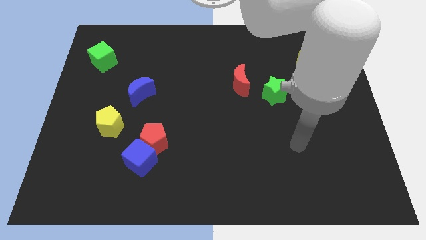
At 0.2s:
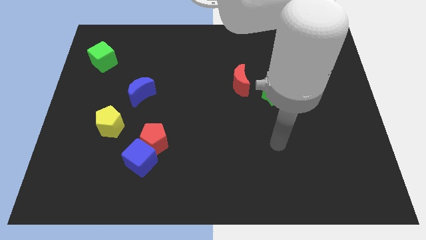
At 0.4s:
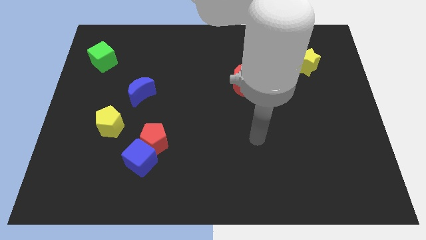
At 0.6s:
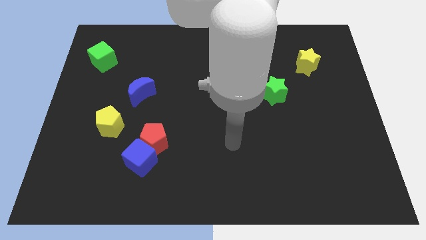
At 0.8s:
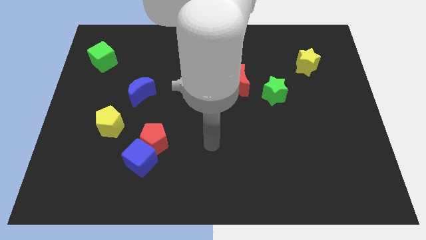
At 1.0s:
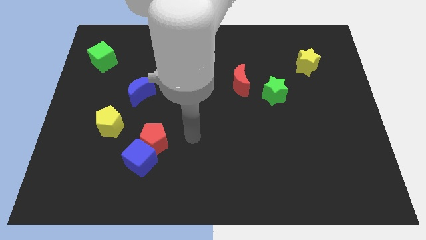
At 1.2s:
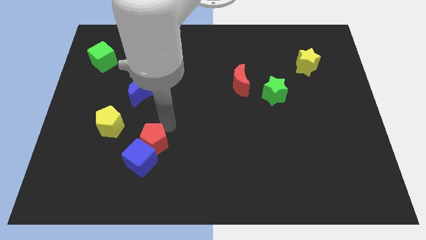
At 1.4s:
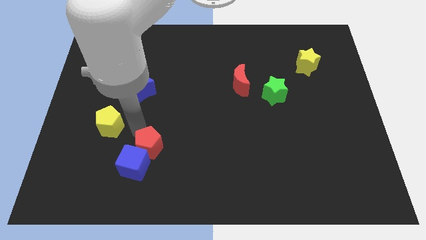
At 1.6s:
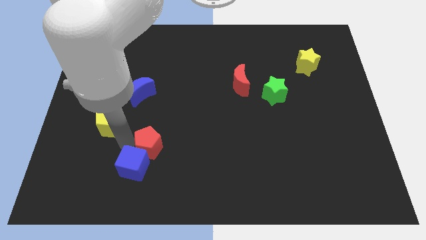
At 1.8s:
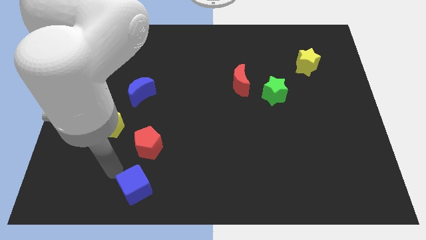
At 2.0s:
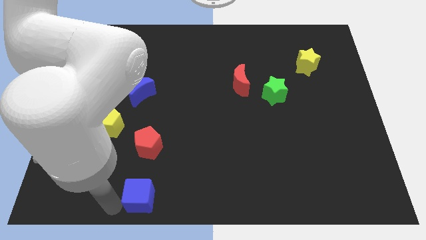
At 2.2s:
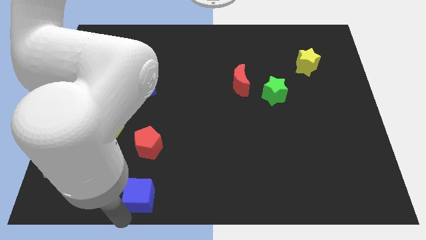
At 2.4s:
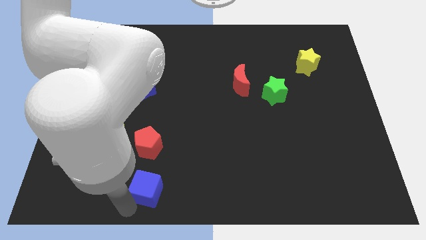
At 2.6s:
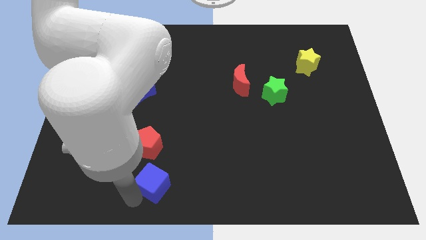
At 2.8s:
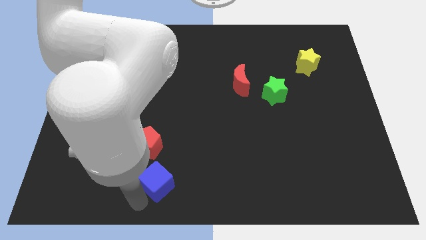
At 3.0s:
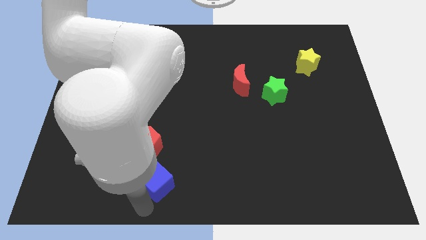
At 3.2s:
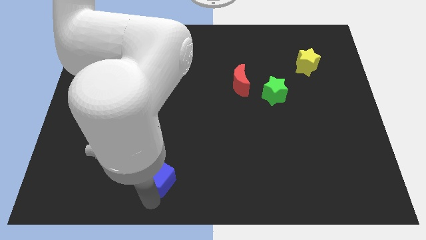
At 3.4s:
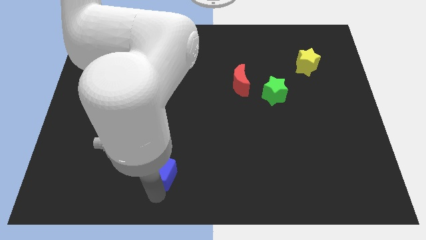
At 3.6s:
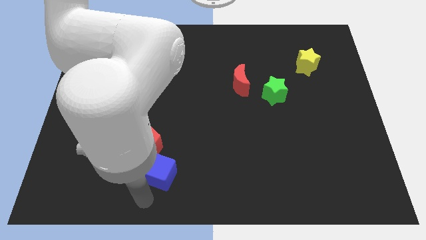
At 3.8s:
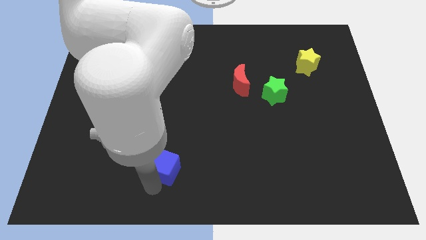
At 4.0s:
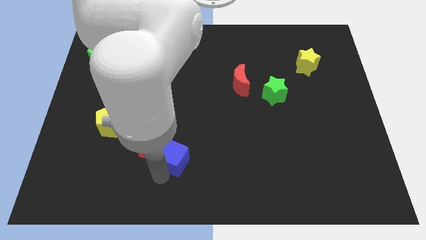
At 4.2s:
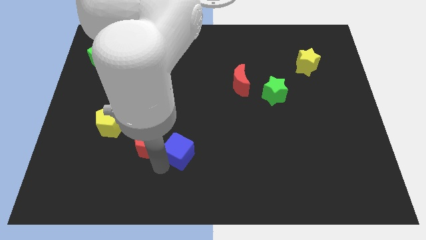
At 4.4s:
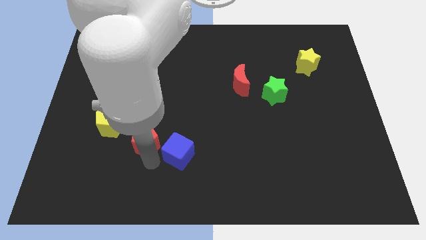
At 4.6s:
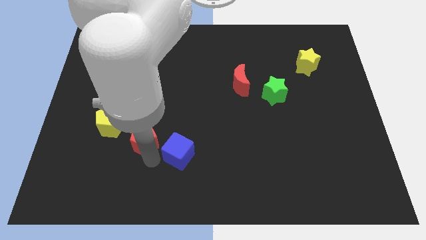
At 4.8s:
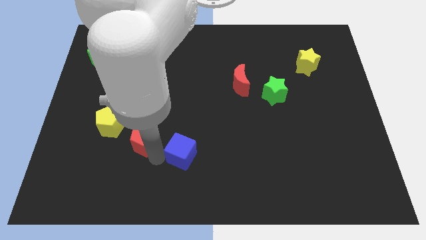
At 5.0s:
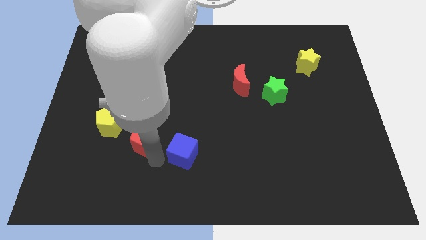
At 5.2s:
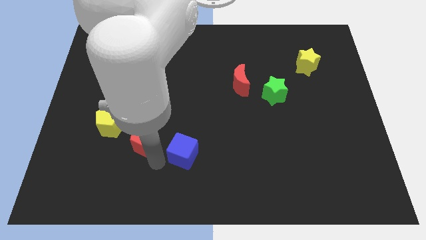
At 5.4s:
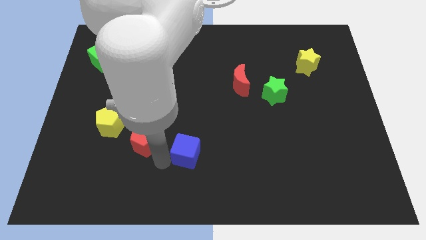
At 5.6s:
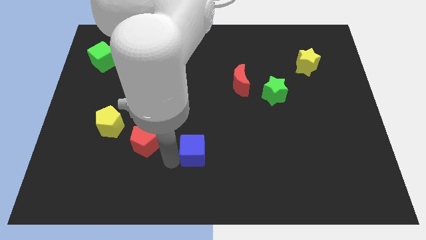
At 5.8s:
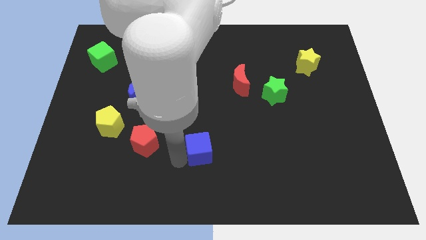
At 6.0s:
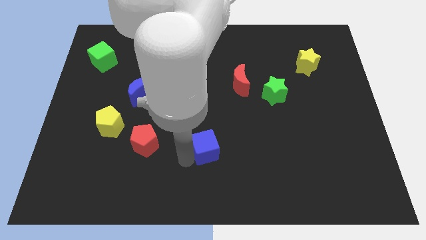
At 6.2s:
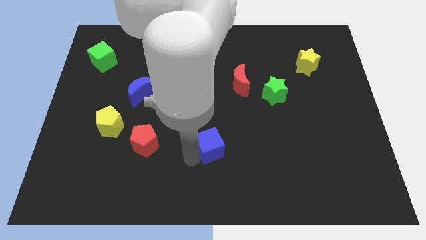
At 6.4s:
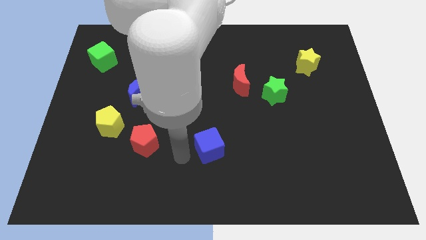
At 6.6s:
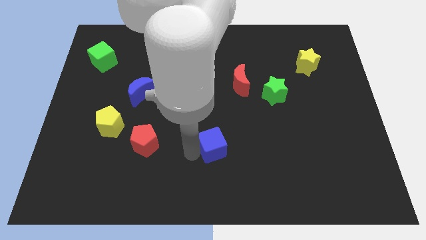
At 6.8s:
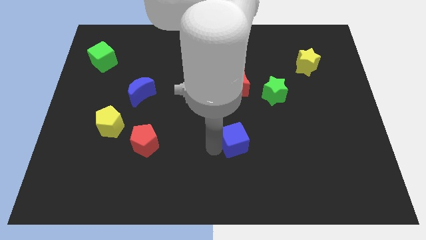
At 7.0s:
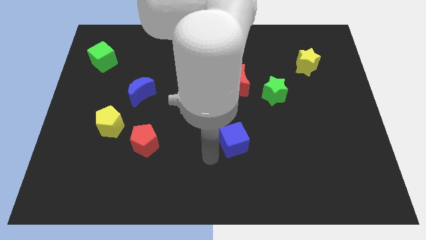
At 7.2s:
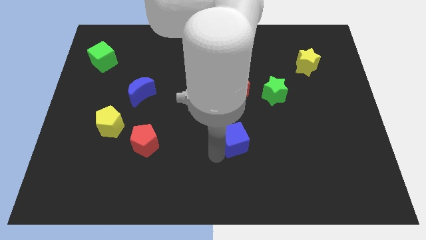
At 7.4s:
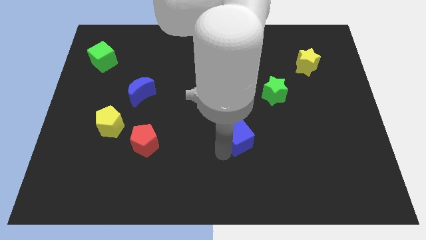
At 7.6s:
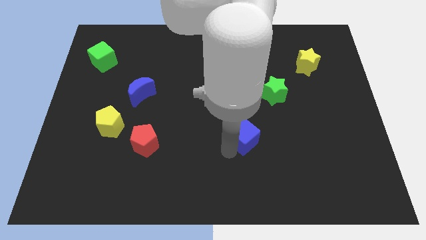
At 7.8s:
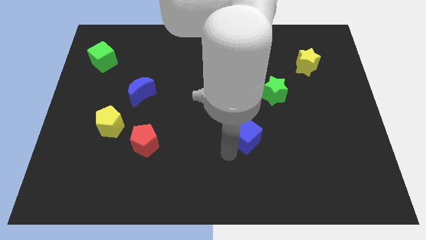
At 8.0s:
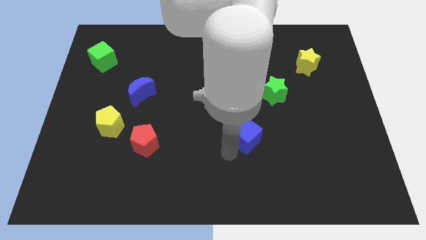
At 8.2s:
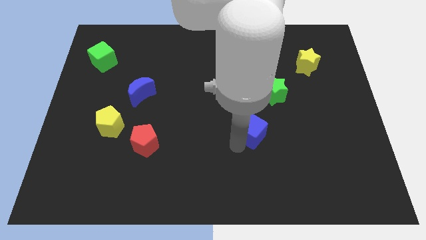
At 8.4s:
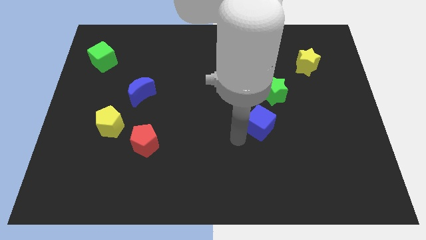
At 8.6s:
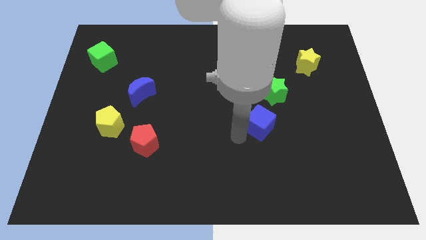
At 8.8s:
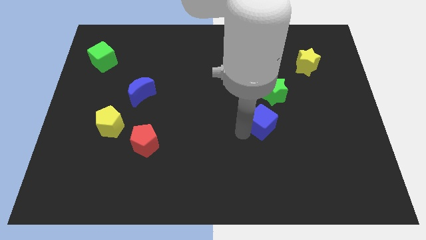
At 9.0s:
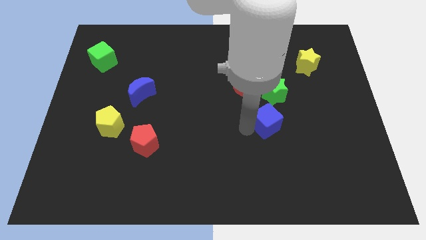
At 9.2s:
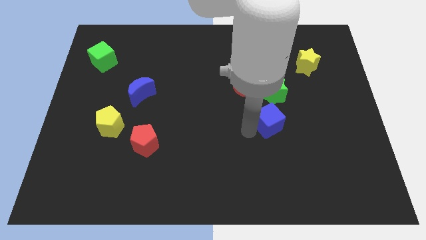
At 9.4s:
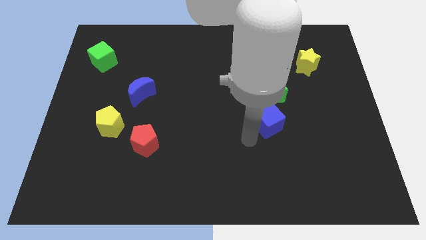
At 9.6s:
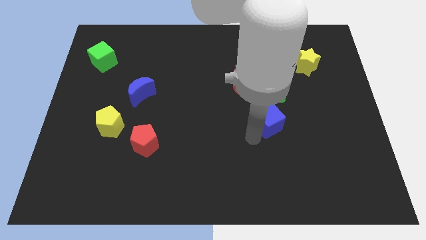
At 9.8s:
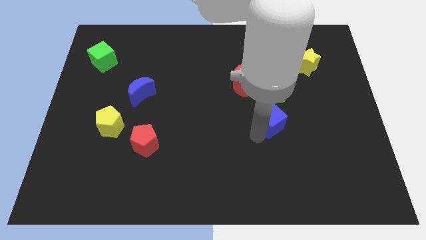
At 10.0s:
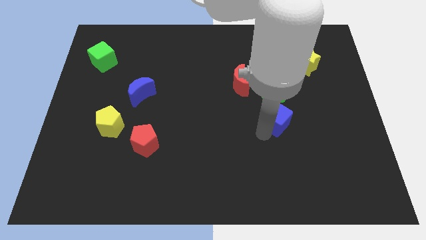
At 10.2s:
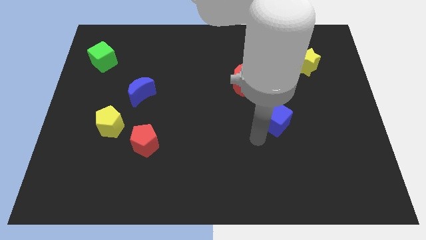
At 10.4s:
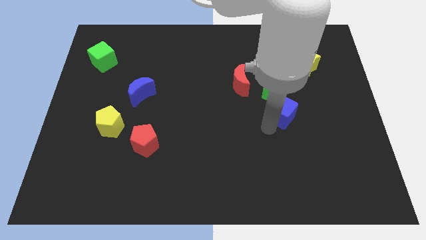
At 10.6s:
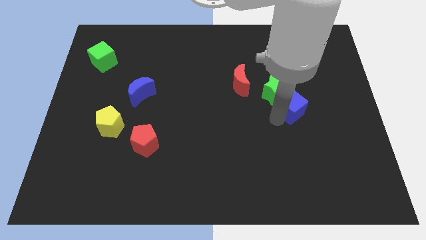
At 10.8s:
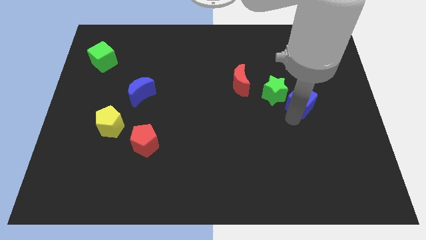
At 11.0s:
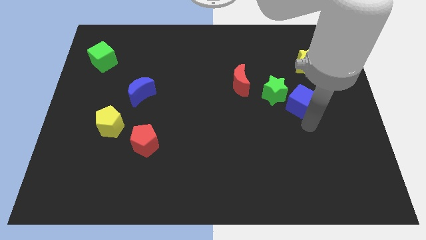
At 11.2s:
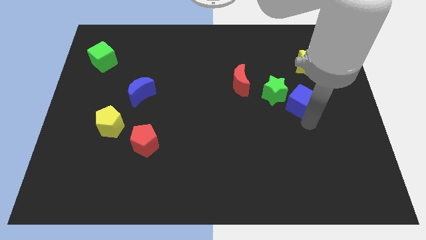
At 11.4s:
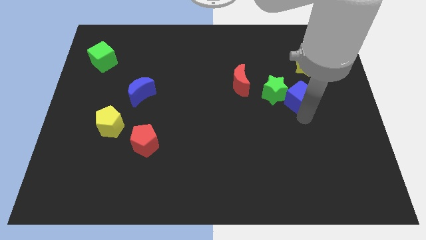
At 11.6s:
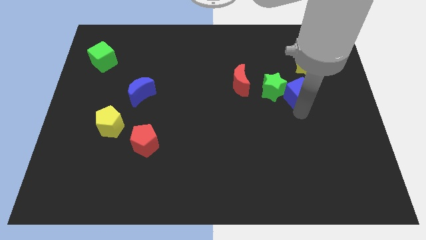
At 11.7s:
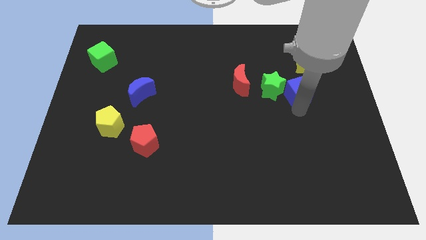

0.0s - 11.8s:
slide the blue cube diagonally down and to the left of the yellow star

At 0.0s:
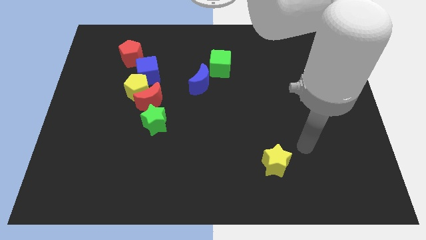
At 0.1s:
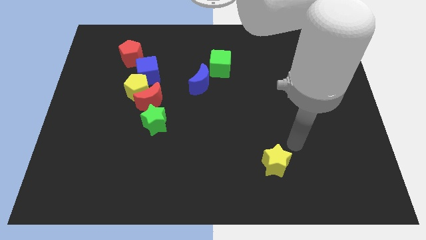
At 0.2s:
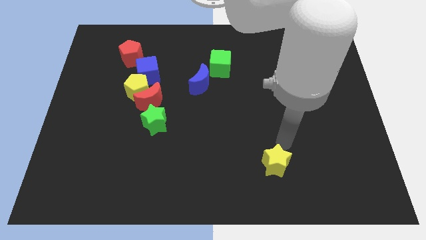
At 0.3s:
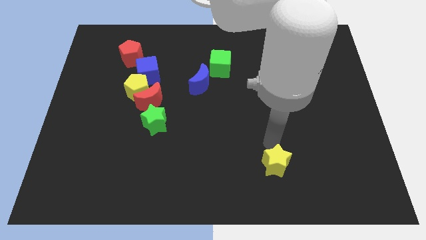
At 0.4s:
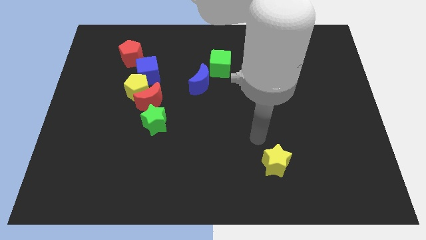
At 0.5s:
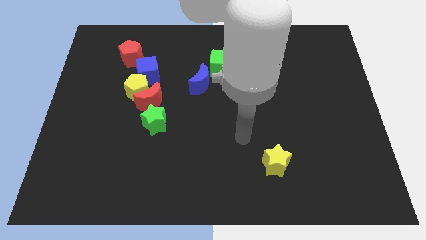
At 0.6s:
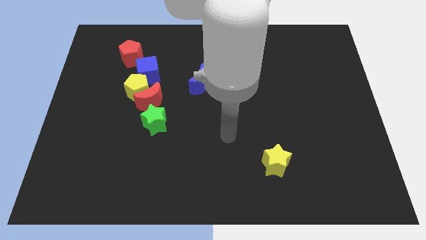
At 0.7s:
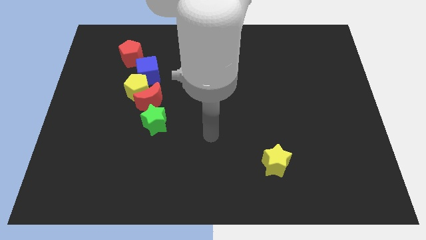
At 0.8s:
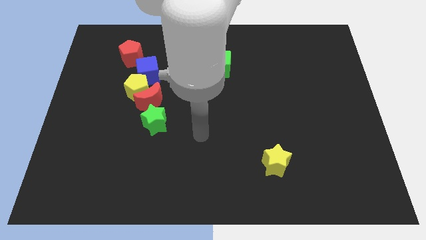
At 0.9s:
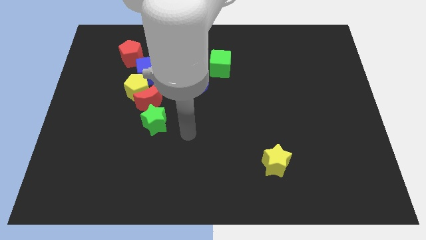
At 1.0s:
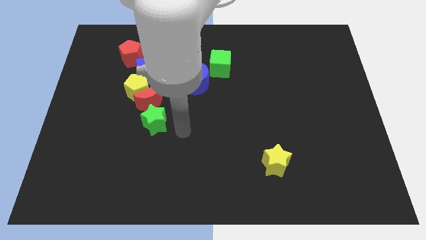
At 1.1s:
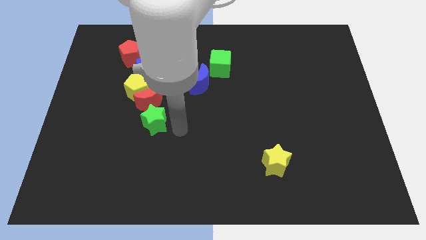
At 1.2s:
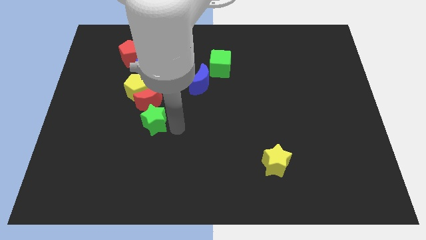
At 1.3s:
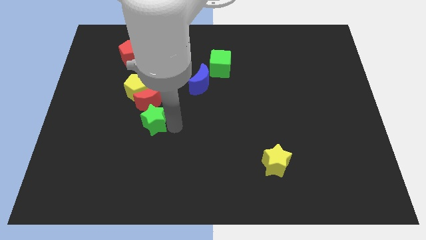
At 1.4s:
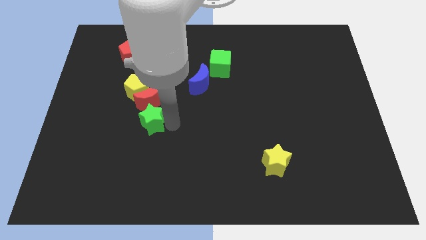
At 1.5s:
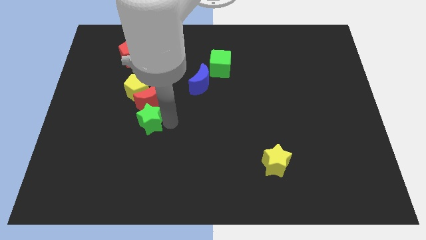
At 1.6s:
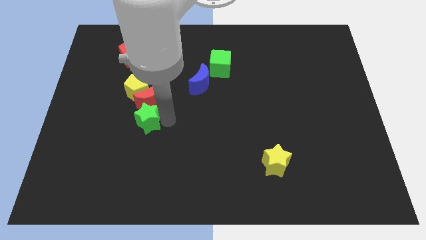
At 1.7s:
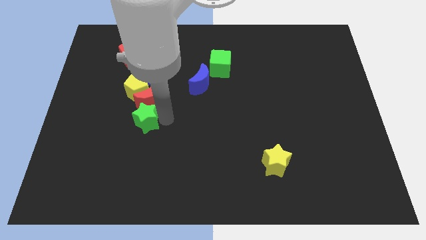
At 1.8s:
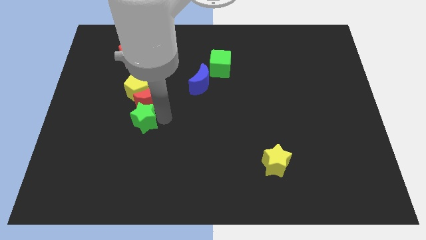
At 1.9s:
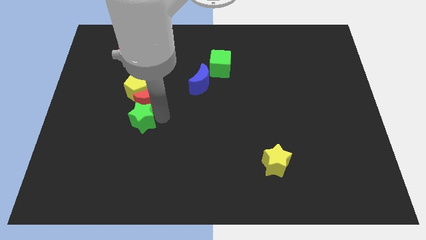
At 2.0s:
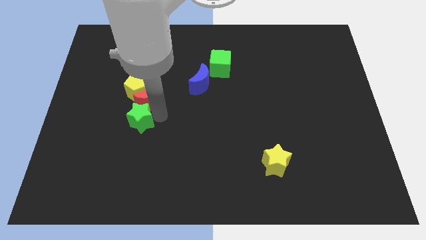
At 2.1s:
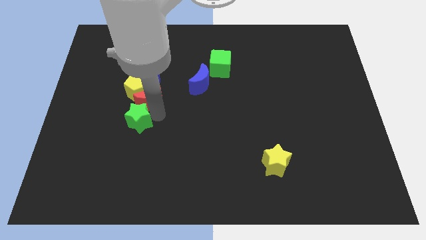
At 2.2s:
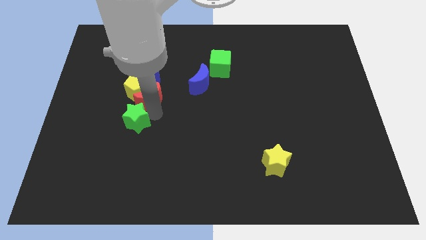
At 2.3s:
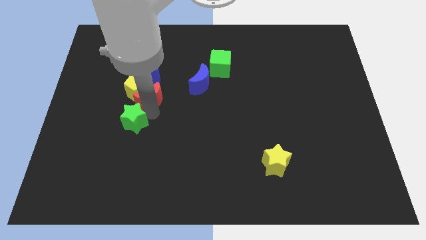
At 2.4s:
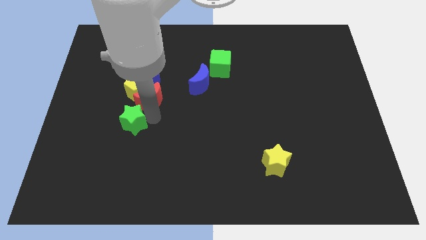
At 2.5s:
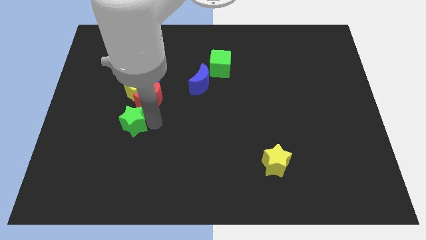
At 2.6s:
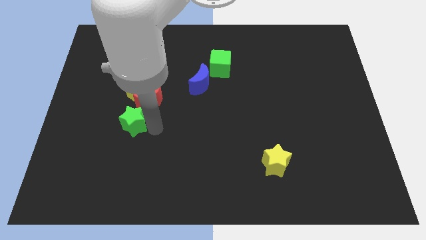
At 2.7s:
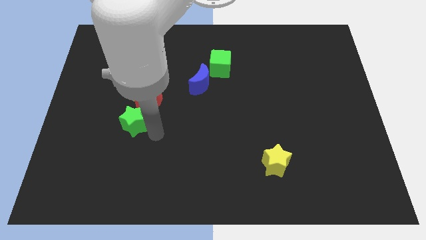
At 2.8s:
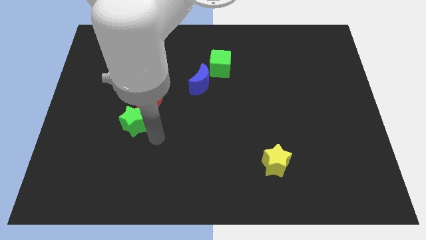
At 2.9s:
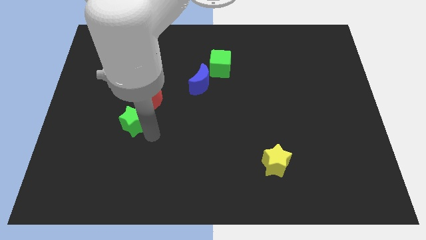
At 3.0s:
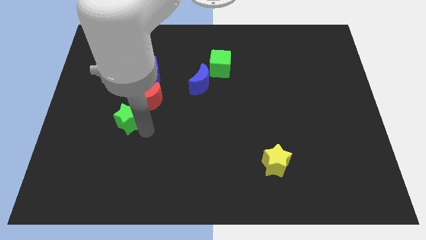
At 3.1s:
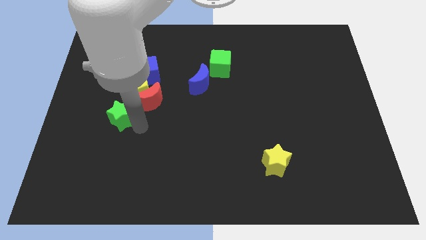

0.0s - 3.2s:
push the green star diagonally down and to the left of the yellow pentagon
